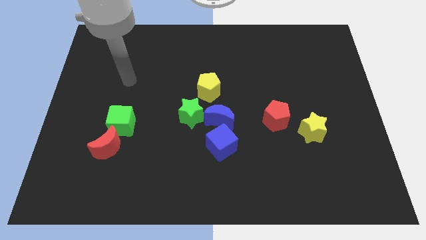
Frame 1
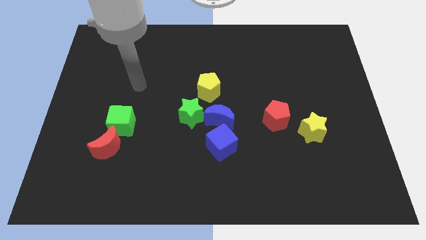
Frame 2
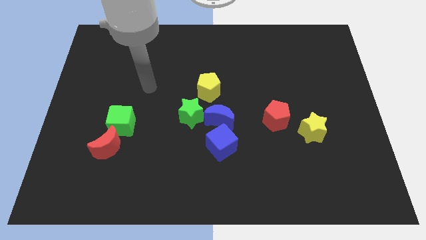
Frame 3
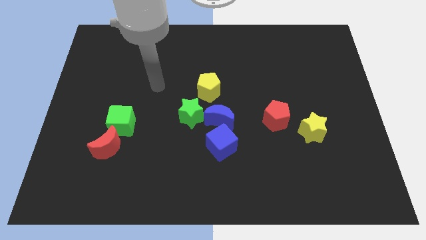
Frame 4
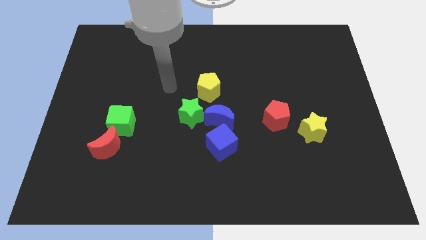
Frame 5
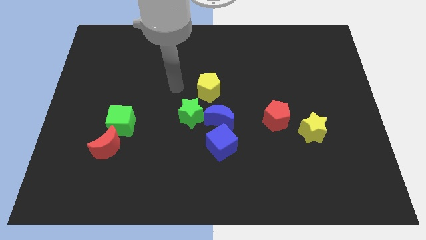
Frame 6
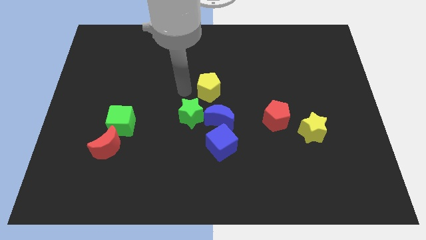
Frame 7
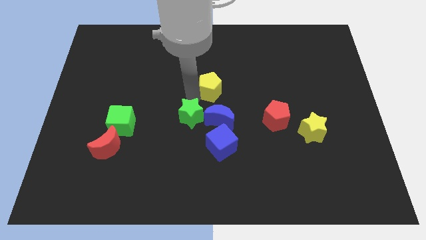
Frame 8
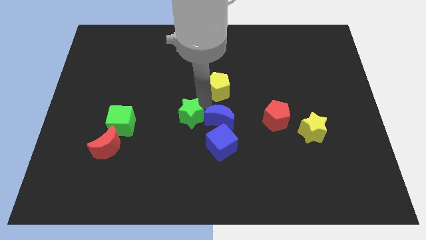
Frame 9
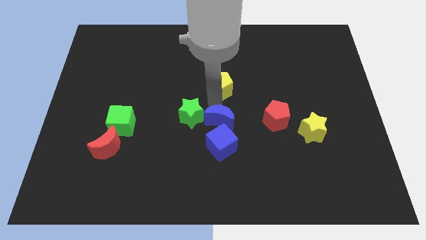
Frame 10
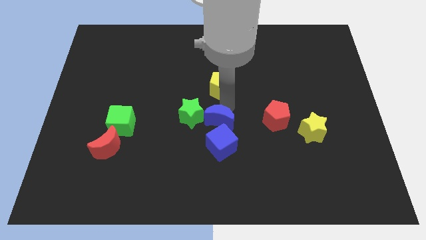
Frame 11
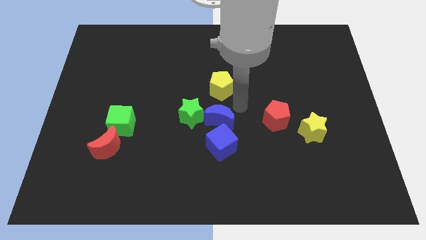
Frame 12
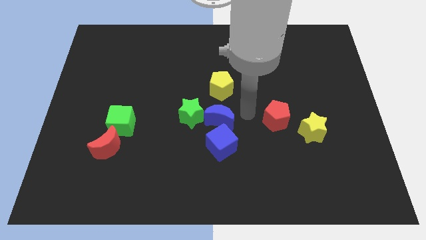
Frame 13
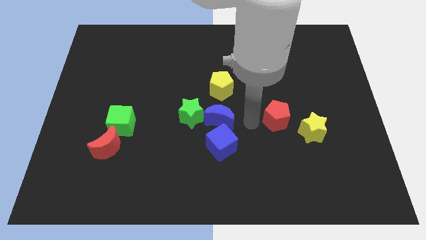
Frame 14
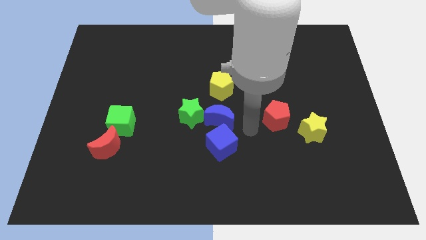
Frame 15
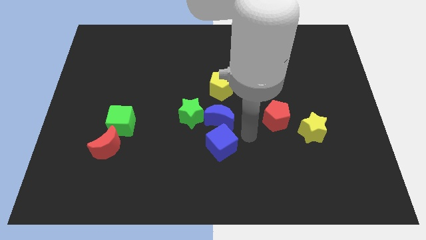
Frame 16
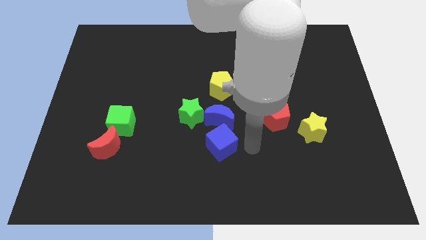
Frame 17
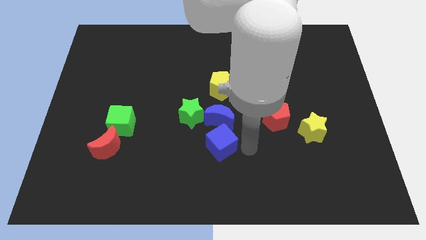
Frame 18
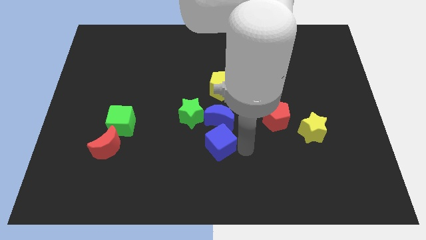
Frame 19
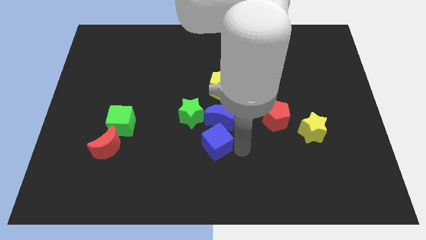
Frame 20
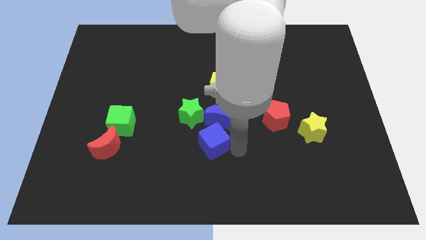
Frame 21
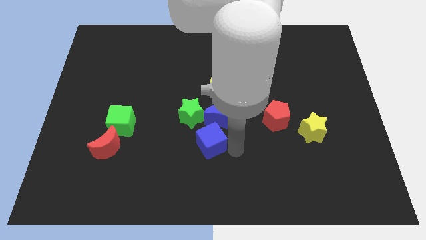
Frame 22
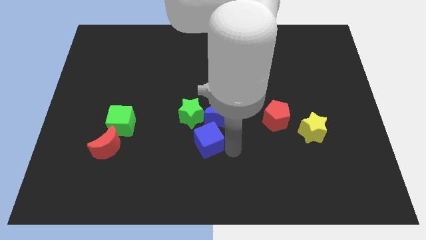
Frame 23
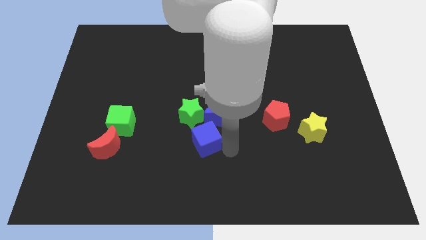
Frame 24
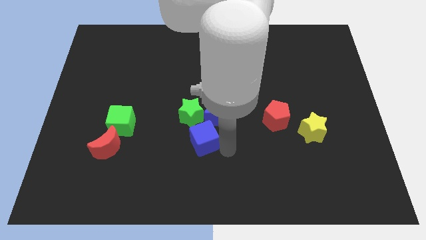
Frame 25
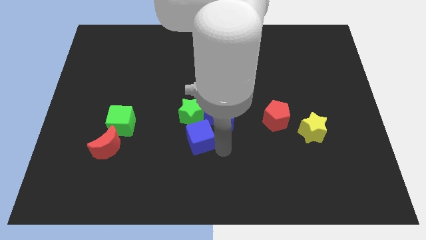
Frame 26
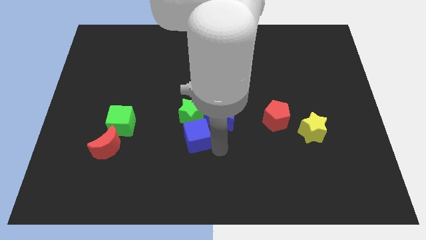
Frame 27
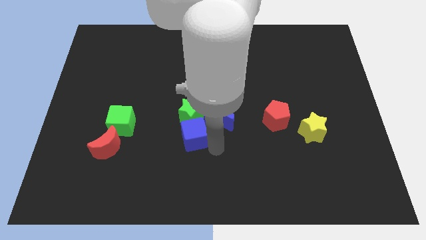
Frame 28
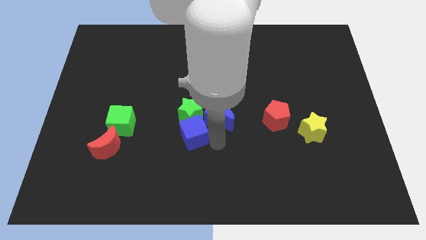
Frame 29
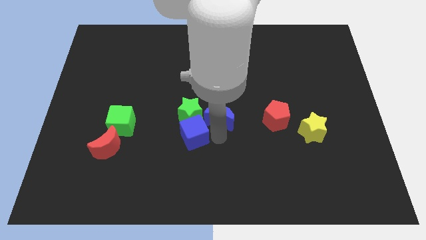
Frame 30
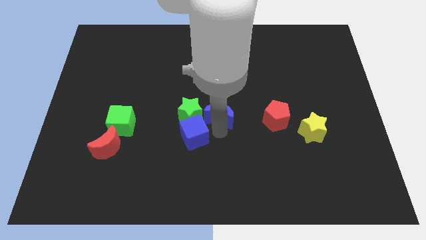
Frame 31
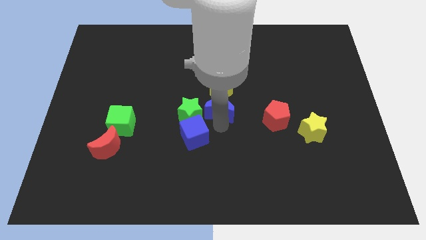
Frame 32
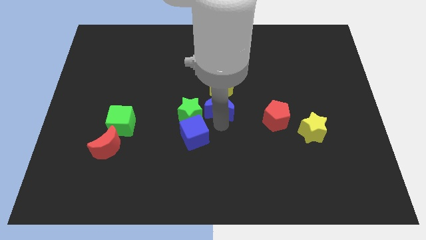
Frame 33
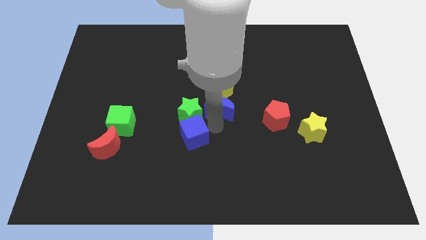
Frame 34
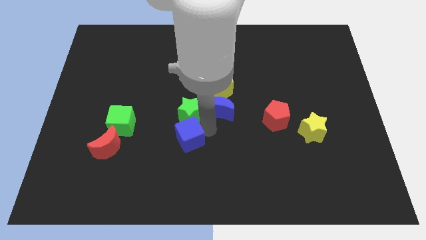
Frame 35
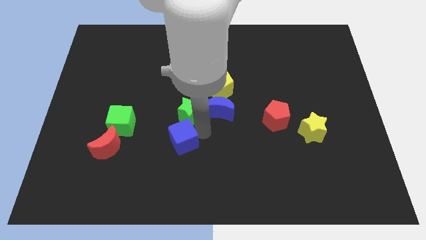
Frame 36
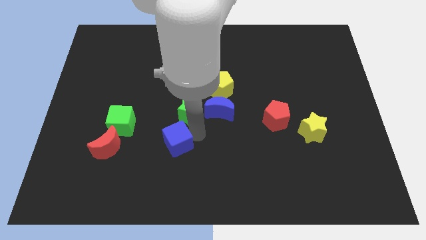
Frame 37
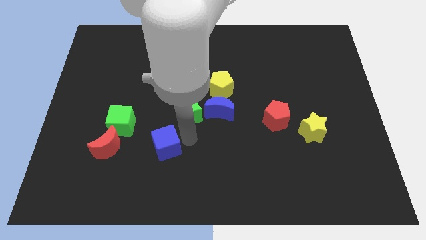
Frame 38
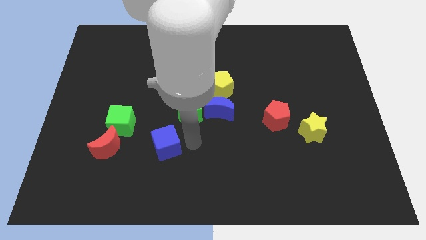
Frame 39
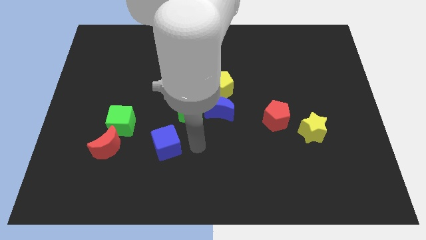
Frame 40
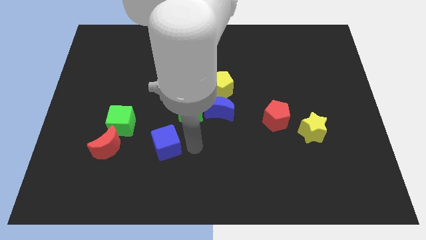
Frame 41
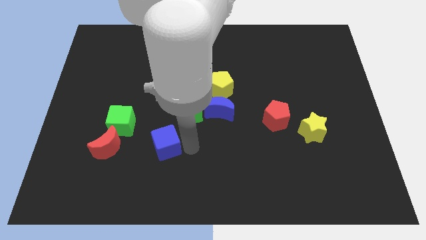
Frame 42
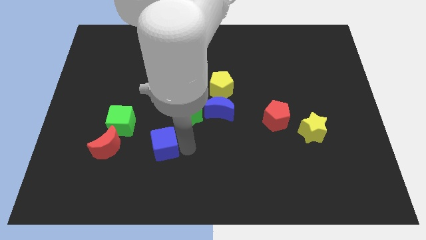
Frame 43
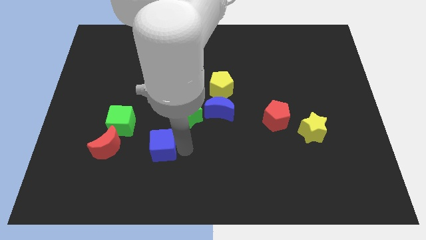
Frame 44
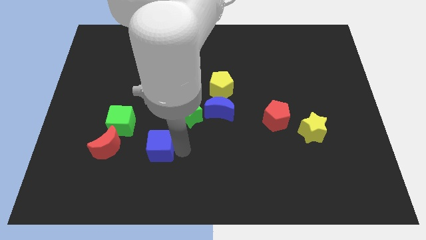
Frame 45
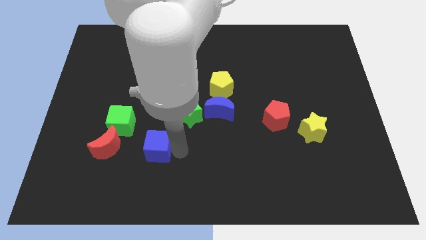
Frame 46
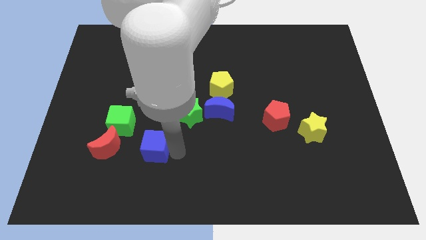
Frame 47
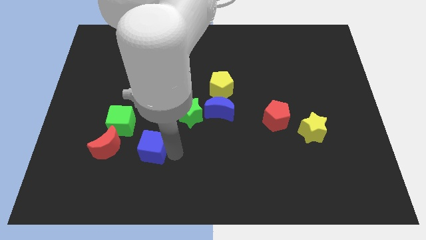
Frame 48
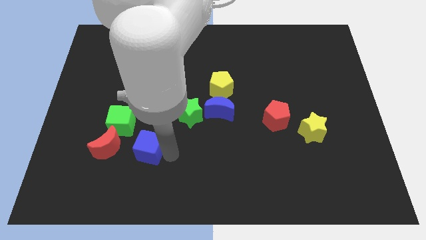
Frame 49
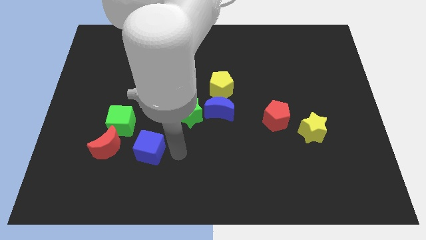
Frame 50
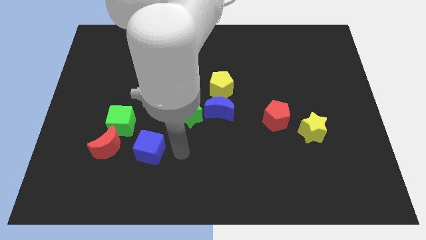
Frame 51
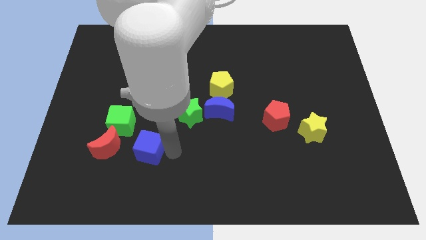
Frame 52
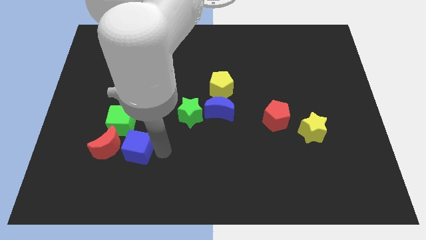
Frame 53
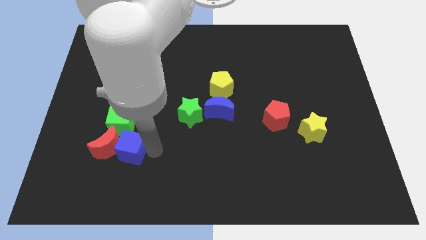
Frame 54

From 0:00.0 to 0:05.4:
push the blue cube close to the red moon

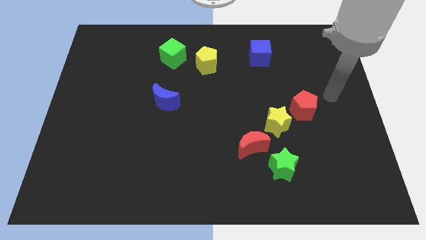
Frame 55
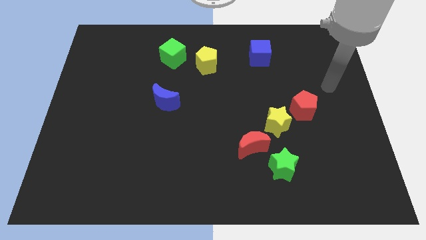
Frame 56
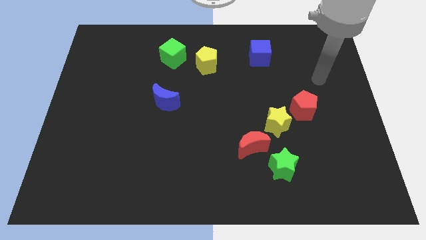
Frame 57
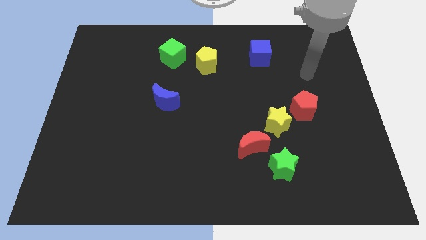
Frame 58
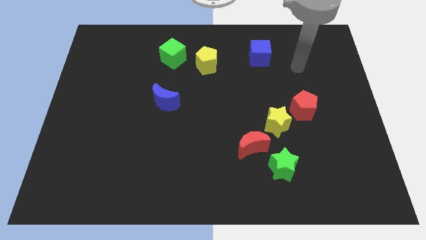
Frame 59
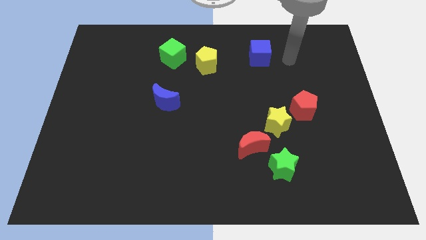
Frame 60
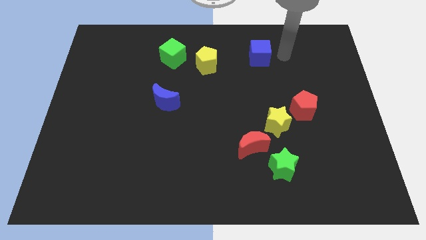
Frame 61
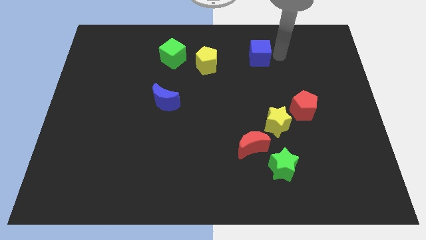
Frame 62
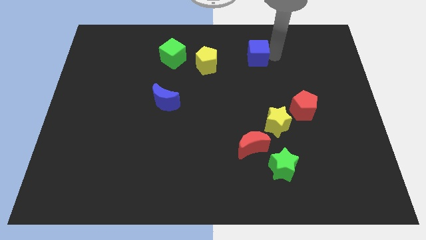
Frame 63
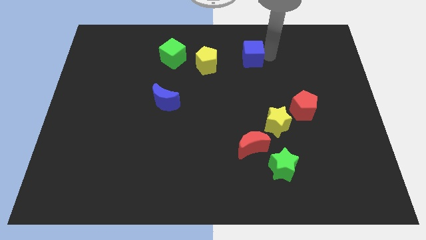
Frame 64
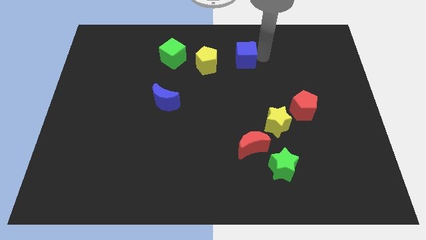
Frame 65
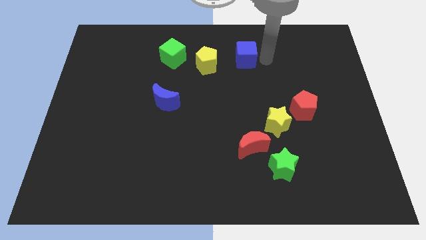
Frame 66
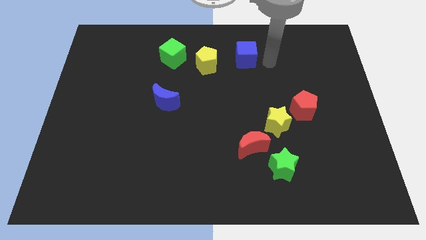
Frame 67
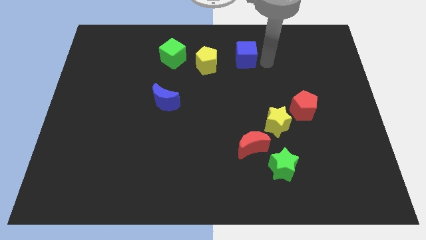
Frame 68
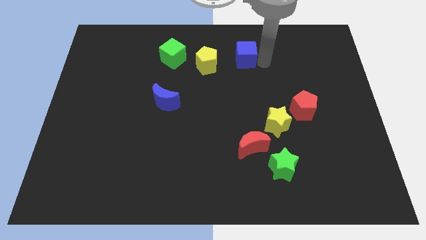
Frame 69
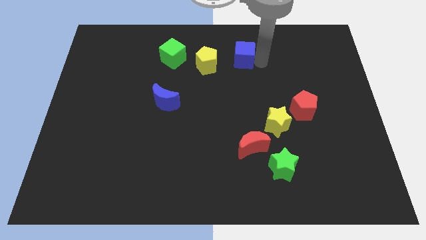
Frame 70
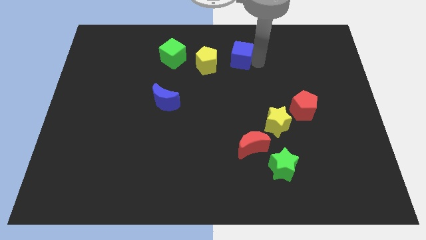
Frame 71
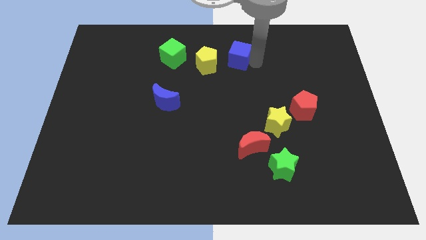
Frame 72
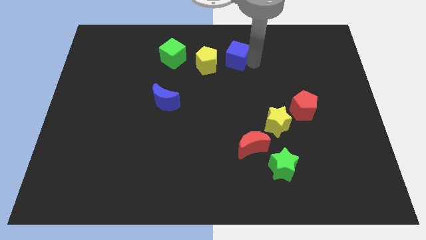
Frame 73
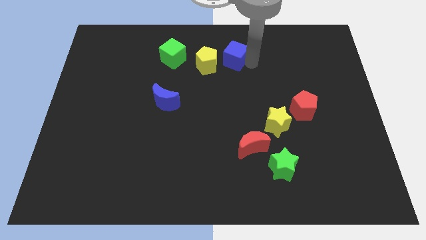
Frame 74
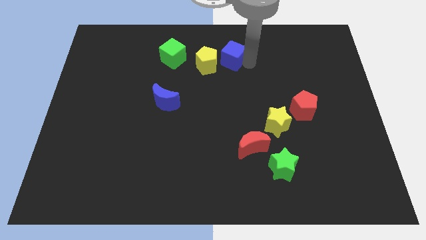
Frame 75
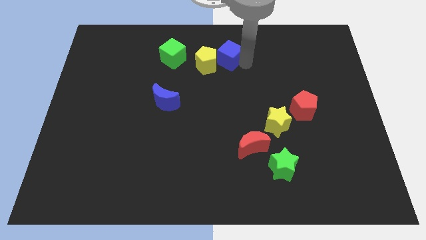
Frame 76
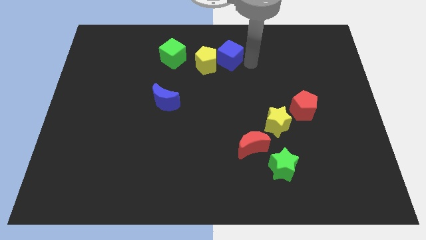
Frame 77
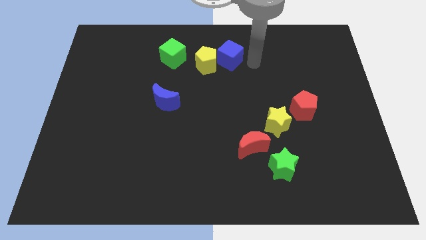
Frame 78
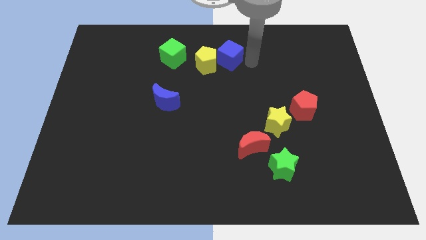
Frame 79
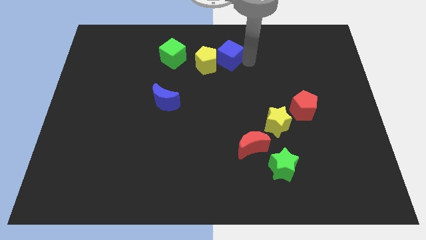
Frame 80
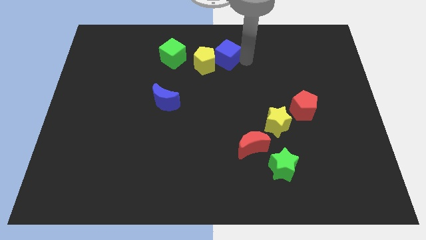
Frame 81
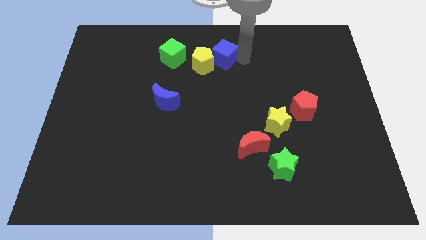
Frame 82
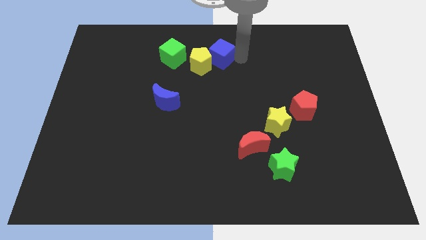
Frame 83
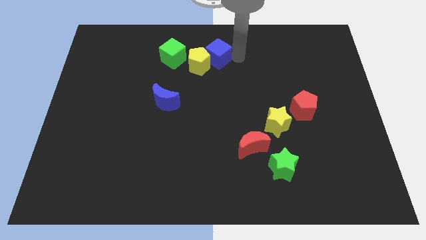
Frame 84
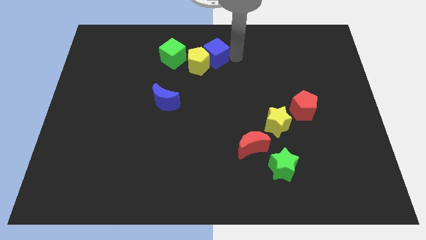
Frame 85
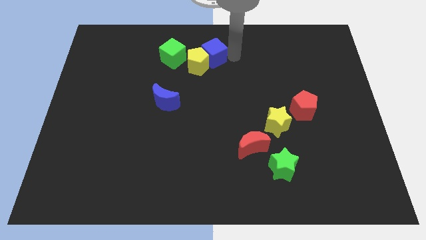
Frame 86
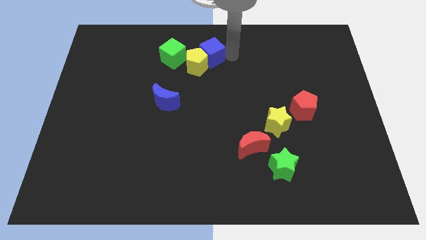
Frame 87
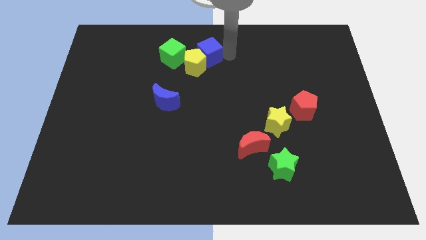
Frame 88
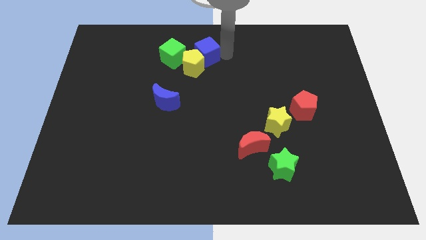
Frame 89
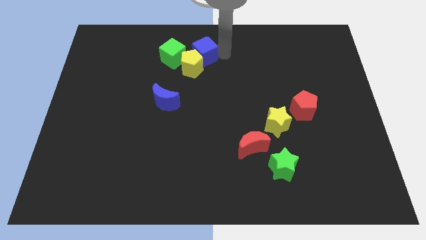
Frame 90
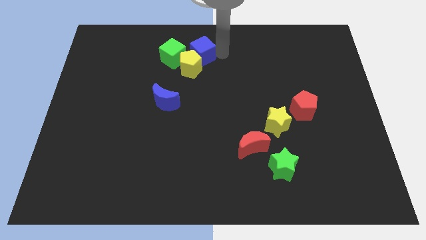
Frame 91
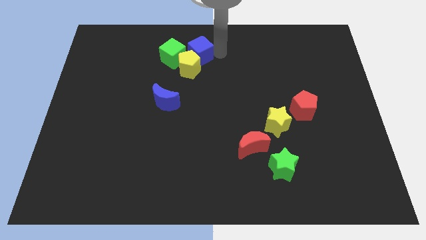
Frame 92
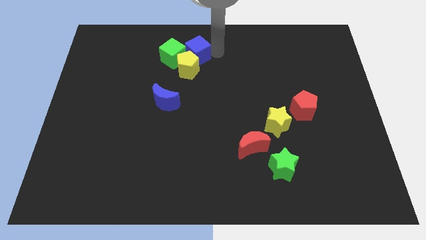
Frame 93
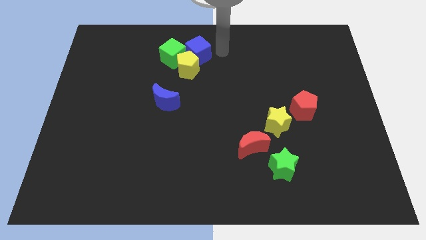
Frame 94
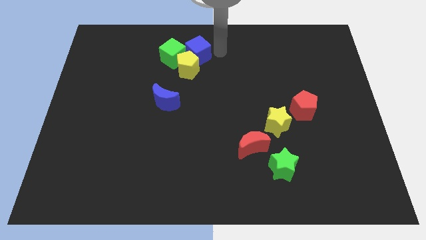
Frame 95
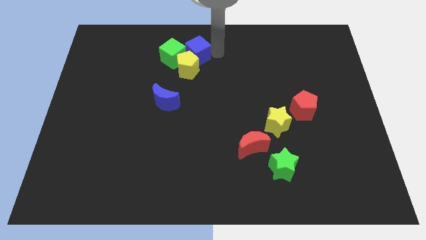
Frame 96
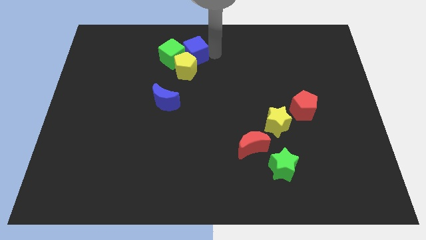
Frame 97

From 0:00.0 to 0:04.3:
move the blue cube towards the green cube
